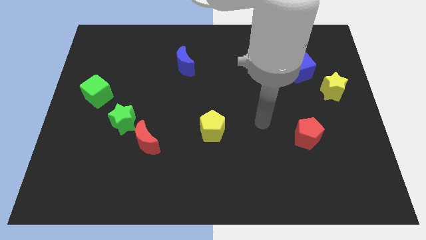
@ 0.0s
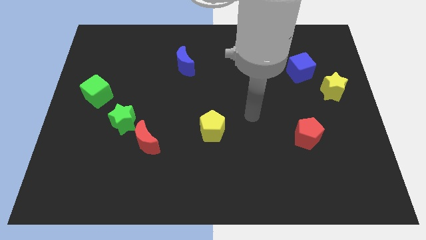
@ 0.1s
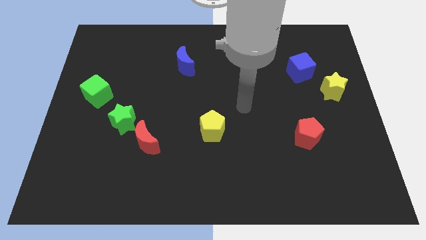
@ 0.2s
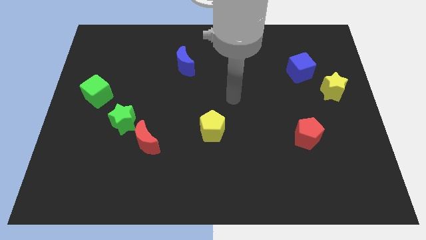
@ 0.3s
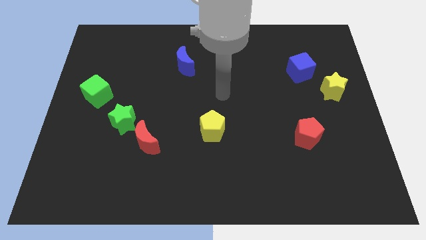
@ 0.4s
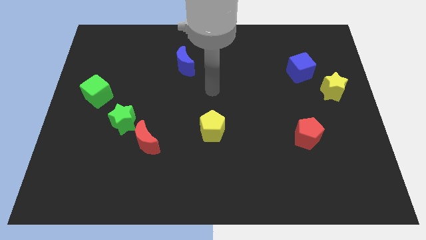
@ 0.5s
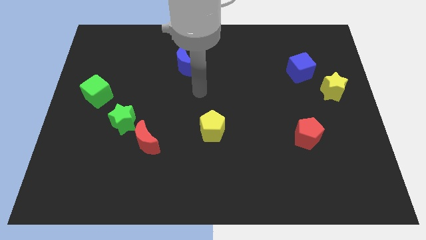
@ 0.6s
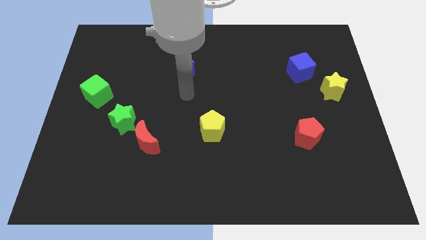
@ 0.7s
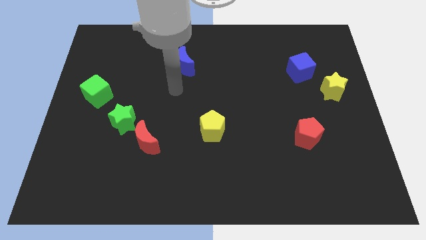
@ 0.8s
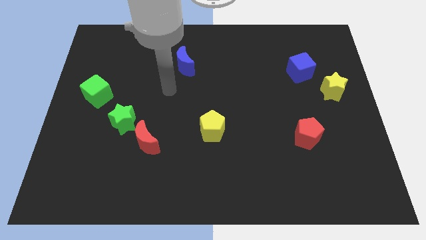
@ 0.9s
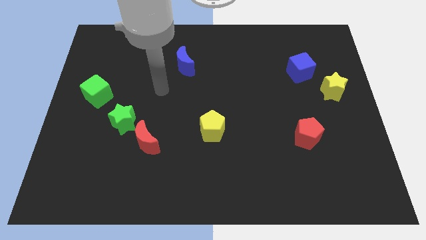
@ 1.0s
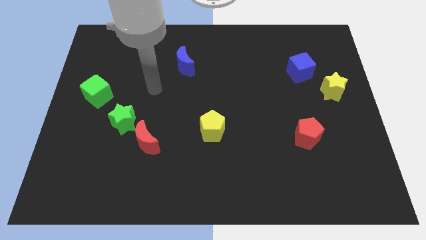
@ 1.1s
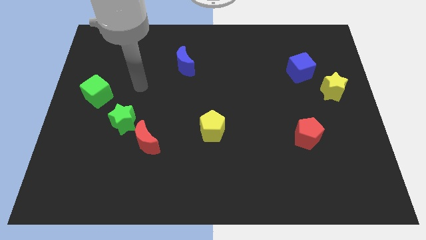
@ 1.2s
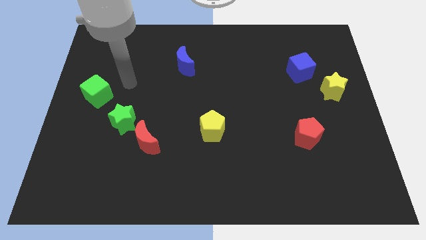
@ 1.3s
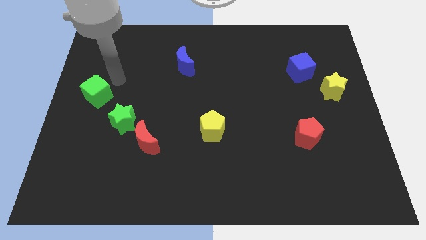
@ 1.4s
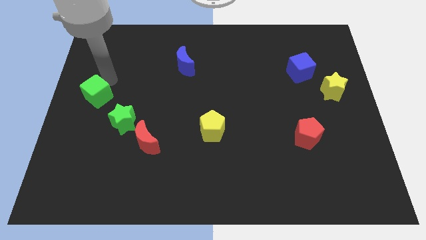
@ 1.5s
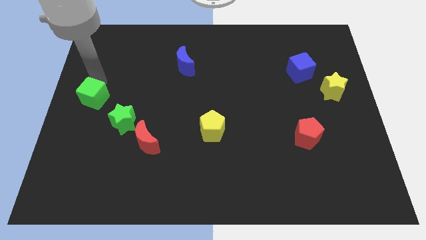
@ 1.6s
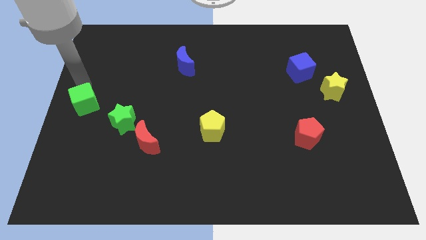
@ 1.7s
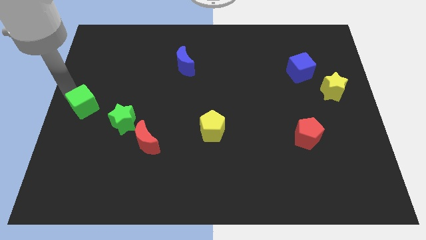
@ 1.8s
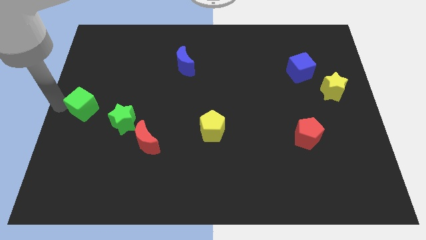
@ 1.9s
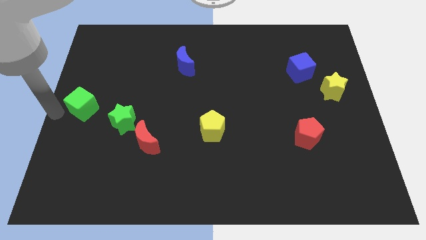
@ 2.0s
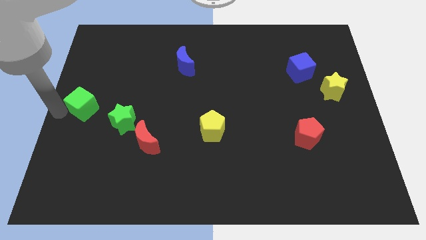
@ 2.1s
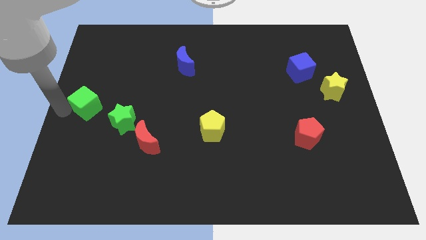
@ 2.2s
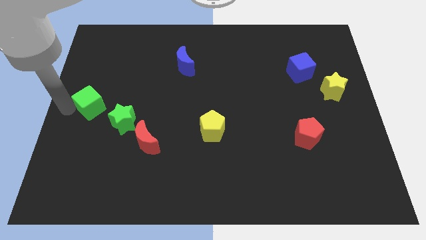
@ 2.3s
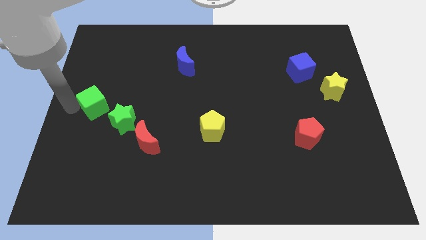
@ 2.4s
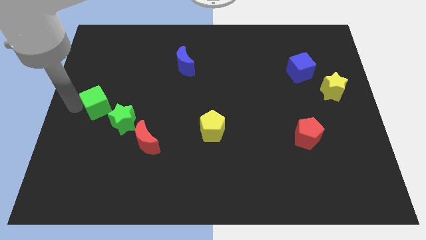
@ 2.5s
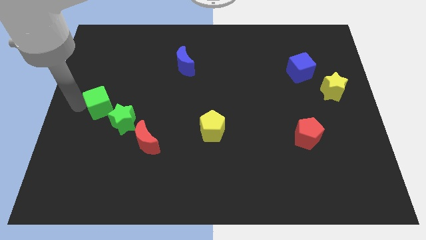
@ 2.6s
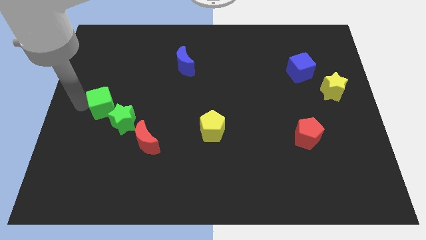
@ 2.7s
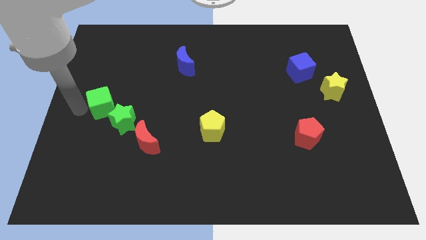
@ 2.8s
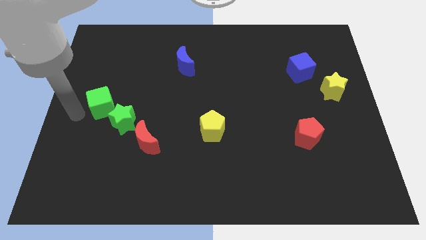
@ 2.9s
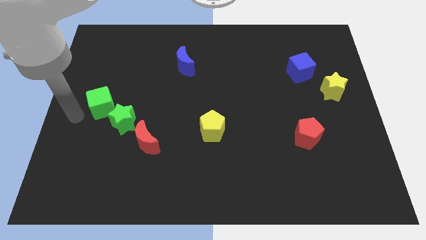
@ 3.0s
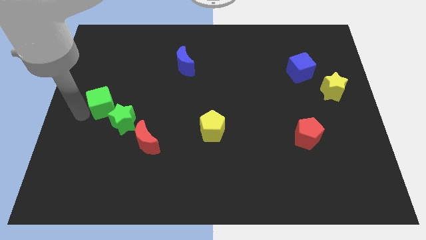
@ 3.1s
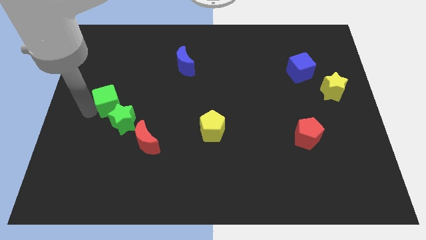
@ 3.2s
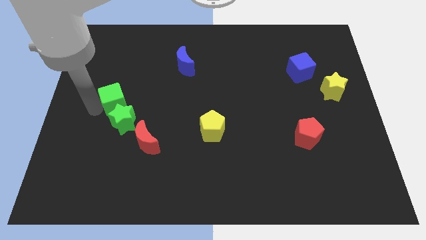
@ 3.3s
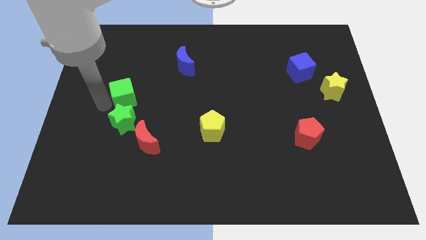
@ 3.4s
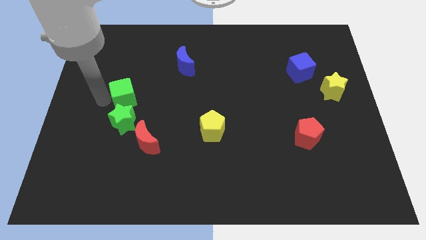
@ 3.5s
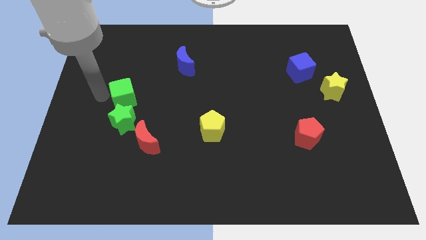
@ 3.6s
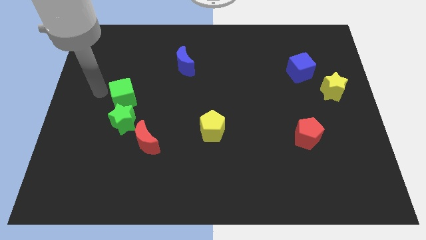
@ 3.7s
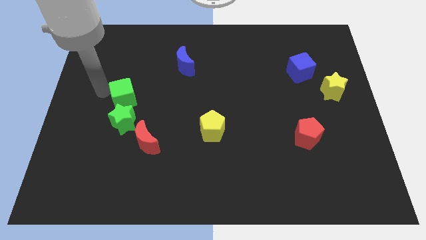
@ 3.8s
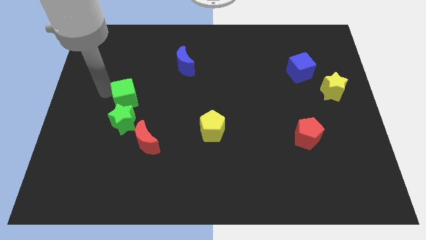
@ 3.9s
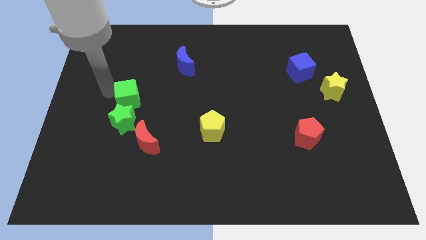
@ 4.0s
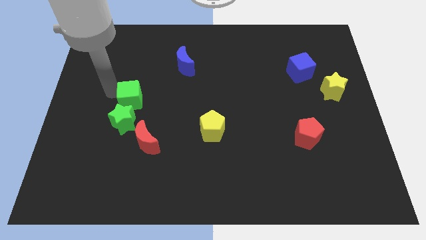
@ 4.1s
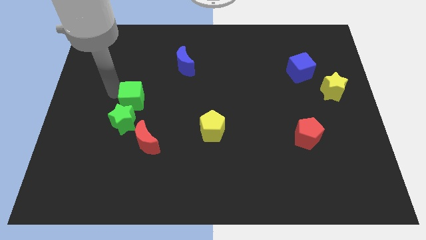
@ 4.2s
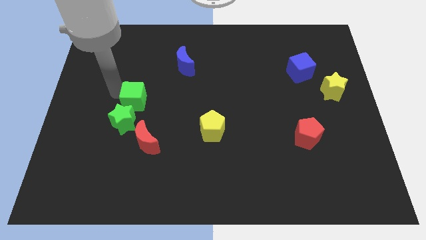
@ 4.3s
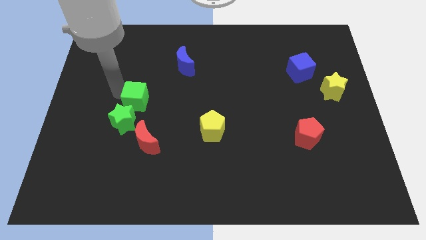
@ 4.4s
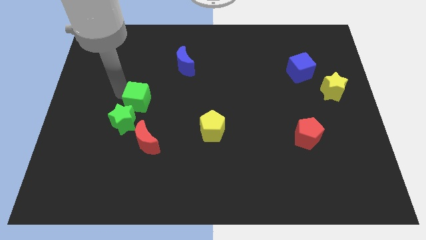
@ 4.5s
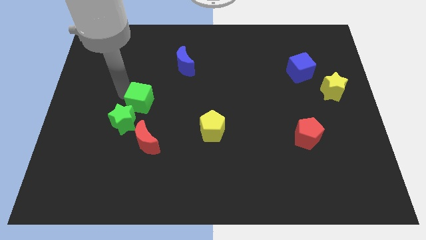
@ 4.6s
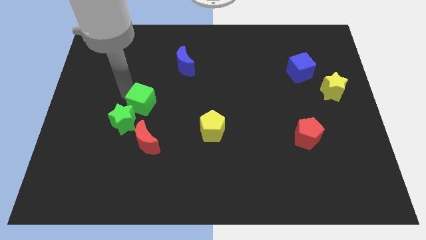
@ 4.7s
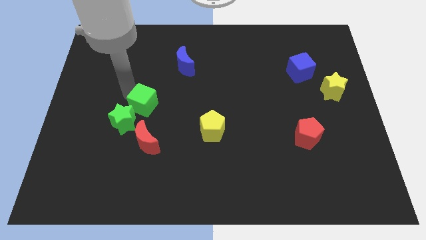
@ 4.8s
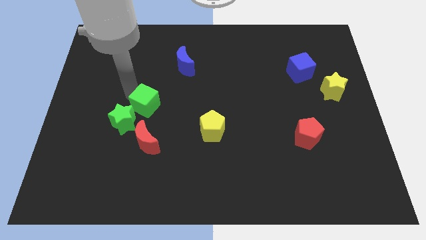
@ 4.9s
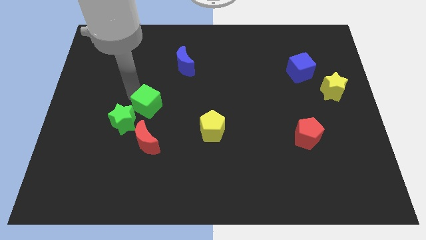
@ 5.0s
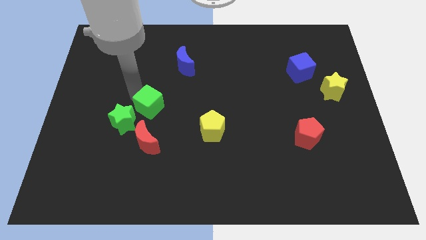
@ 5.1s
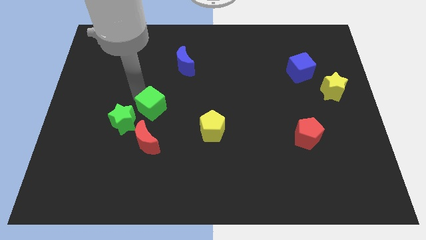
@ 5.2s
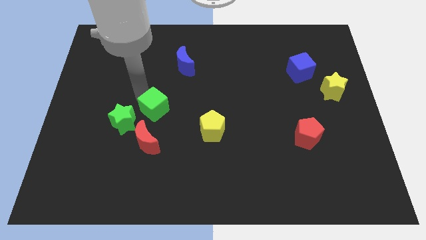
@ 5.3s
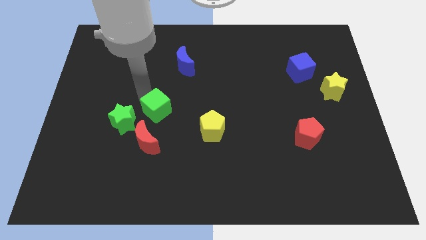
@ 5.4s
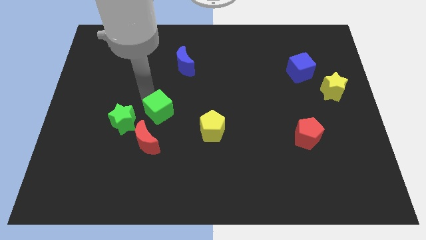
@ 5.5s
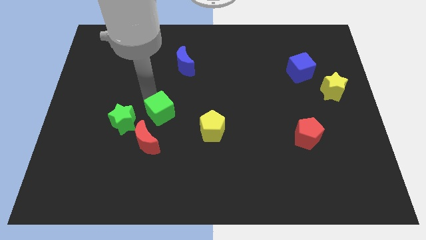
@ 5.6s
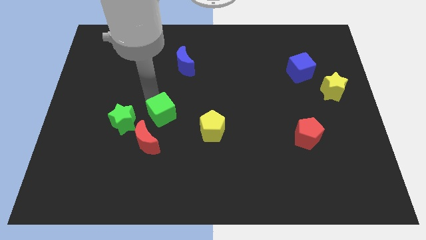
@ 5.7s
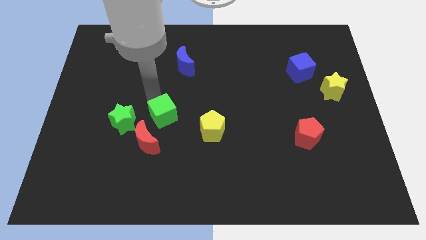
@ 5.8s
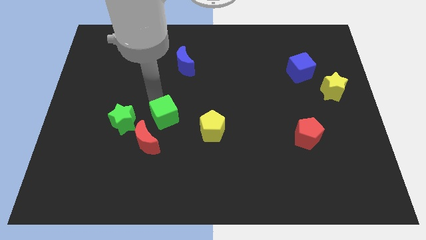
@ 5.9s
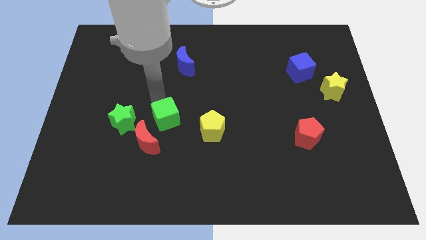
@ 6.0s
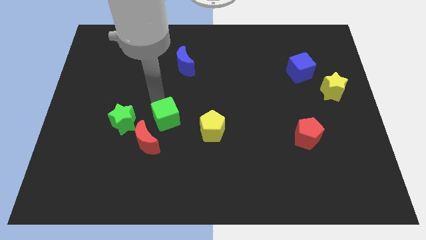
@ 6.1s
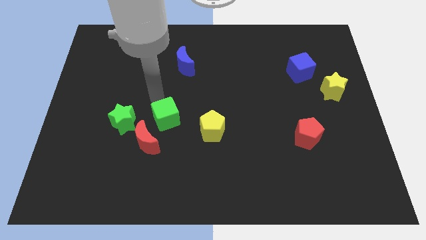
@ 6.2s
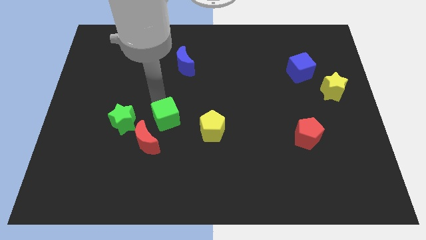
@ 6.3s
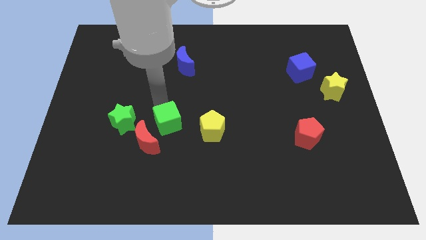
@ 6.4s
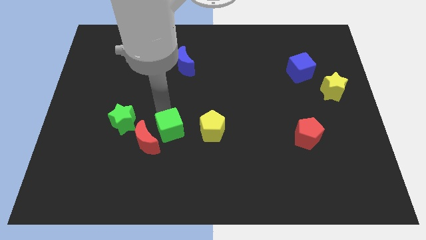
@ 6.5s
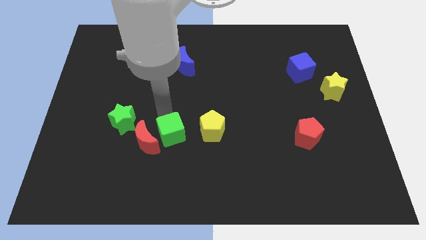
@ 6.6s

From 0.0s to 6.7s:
slide the green cube downwards and right

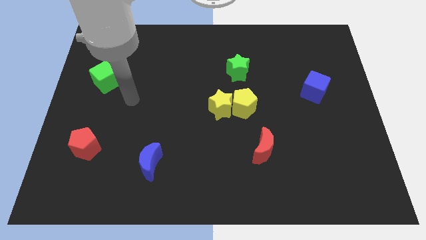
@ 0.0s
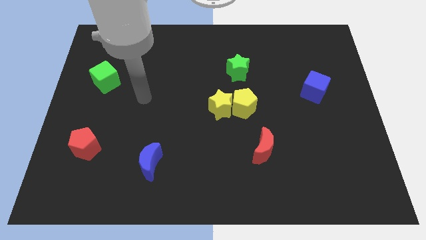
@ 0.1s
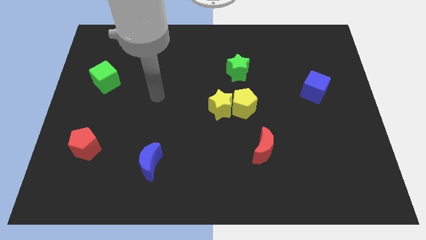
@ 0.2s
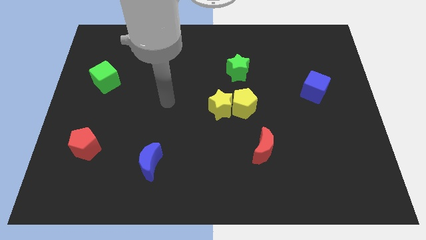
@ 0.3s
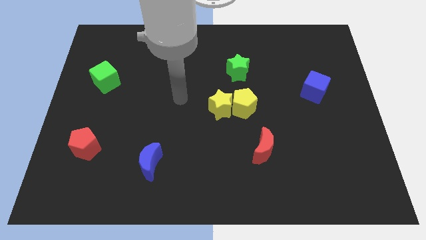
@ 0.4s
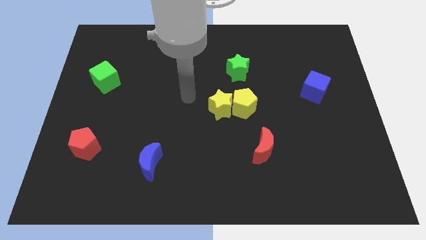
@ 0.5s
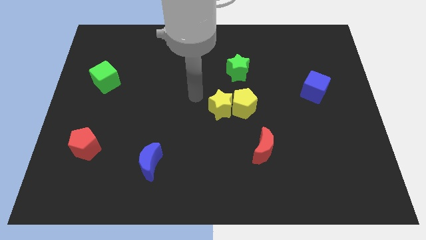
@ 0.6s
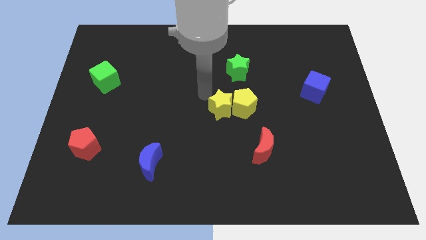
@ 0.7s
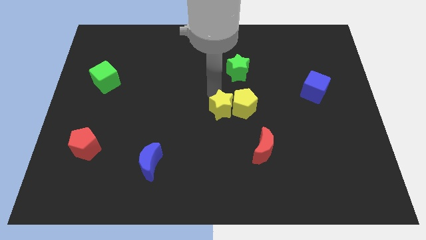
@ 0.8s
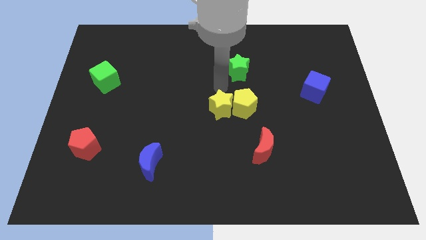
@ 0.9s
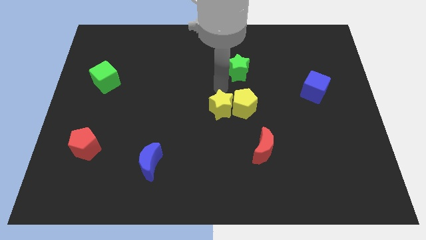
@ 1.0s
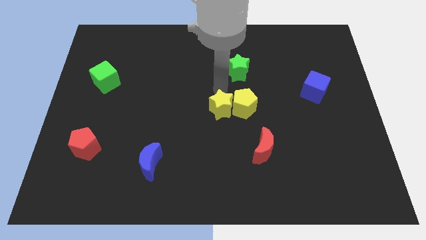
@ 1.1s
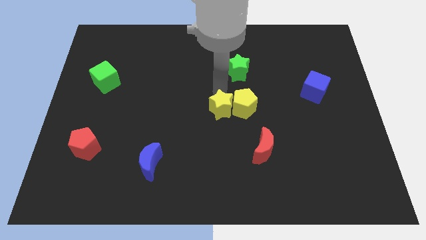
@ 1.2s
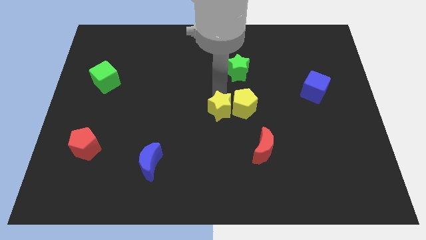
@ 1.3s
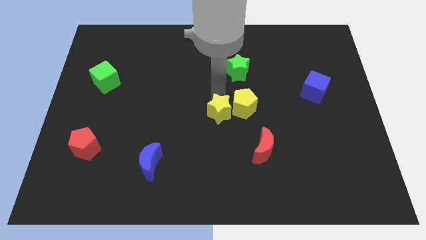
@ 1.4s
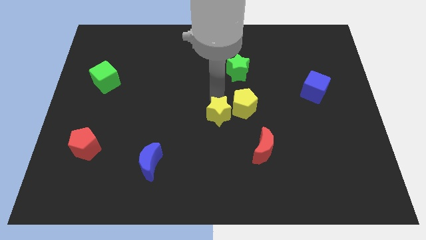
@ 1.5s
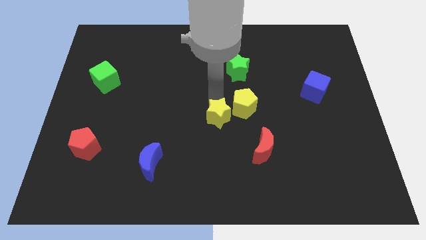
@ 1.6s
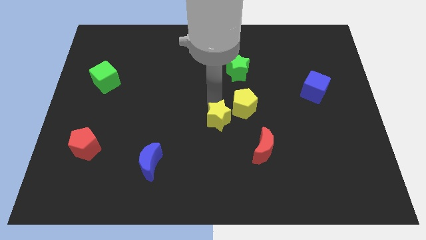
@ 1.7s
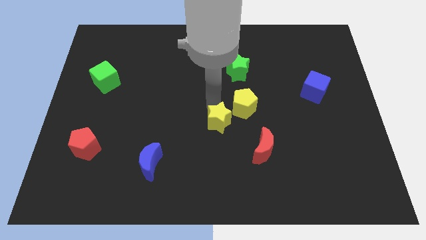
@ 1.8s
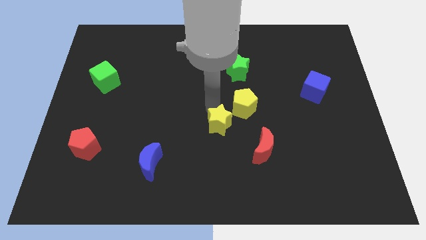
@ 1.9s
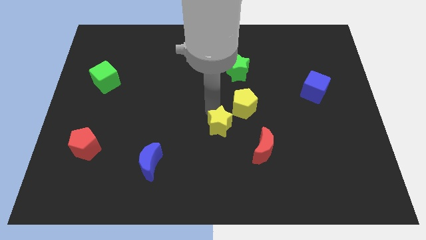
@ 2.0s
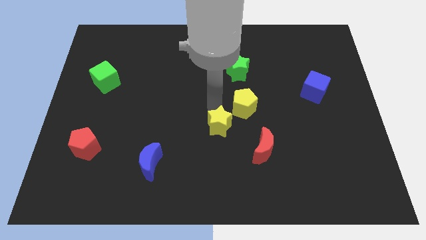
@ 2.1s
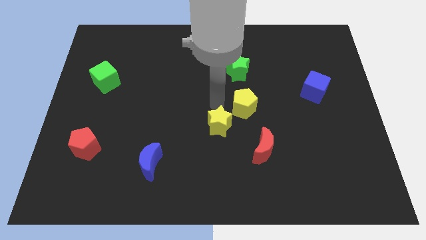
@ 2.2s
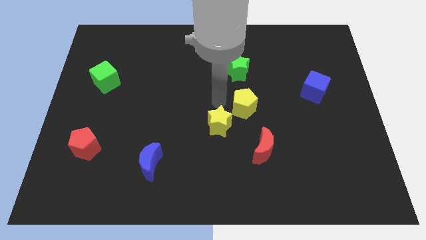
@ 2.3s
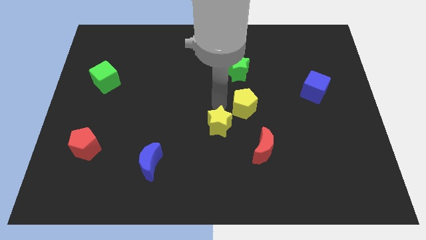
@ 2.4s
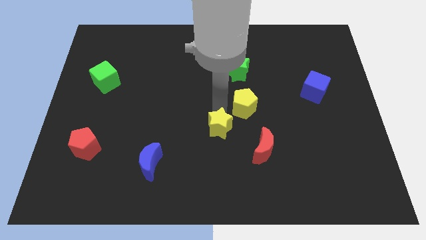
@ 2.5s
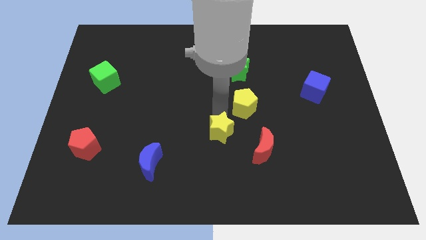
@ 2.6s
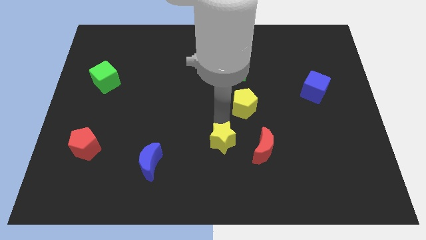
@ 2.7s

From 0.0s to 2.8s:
slightly move the yellow star down
